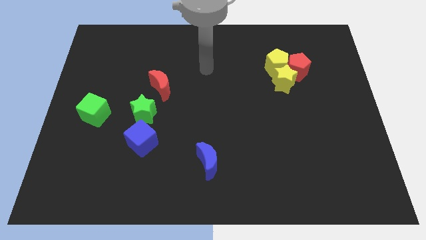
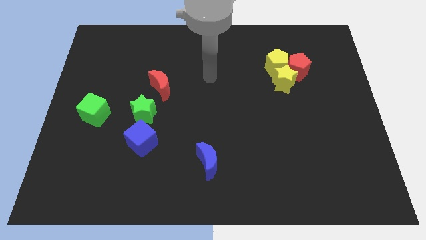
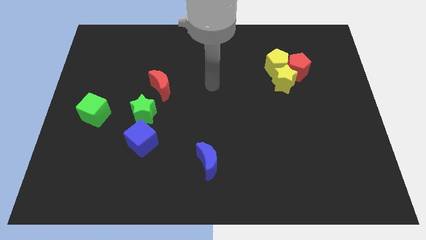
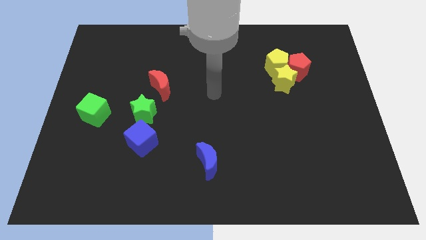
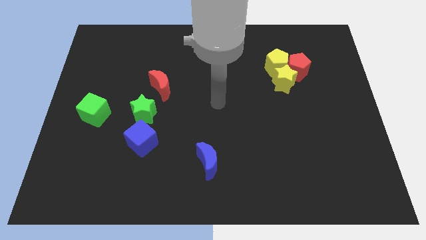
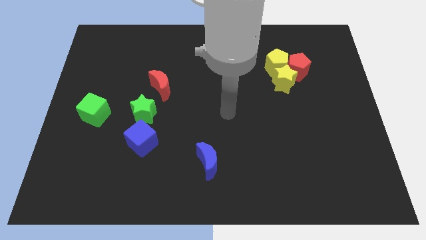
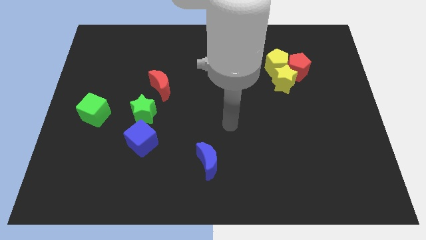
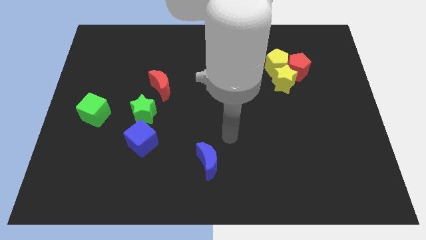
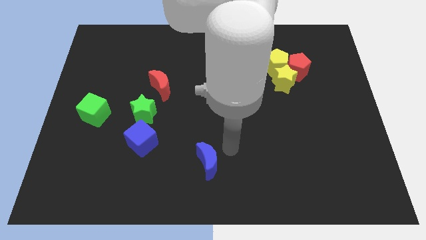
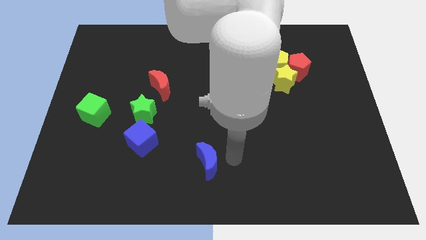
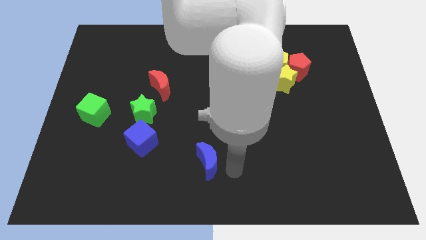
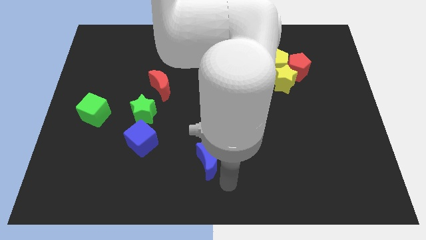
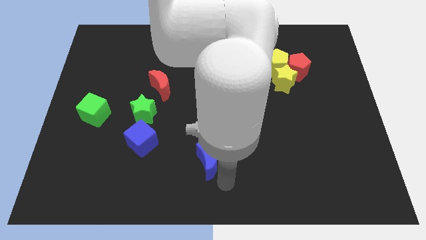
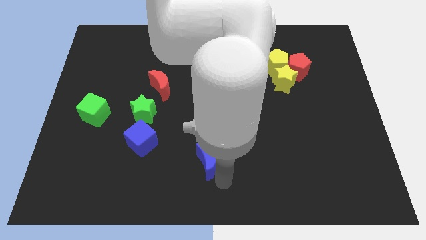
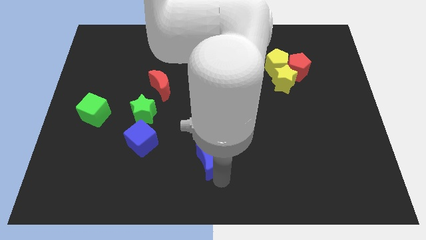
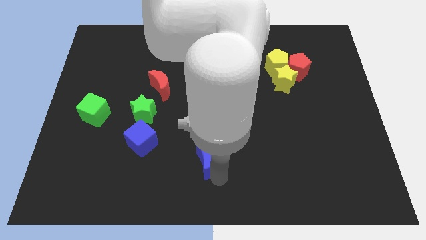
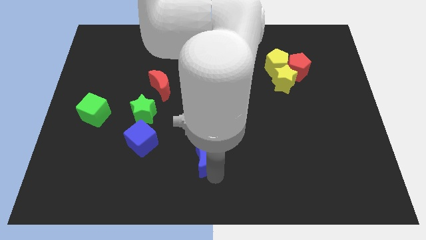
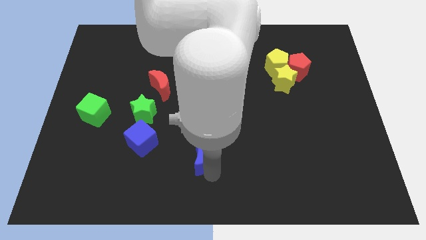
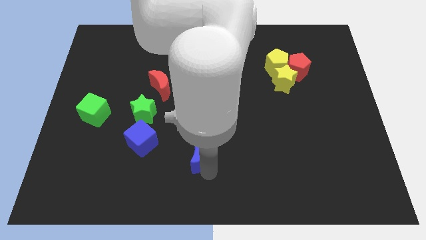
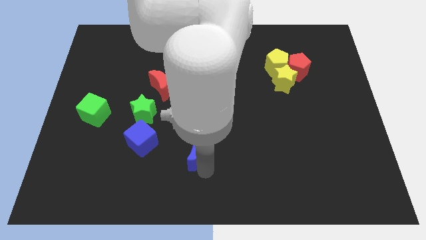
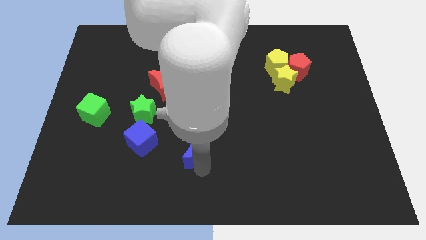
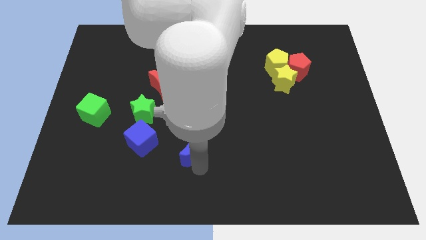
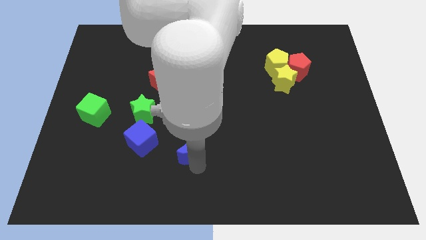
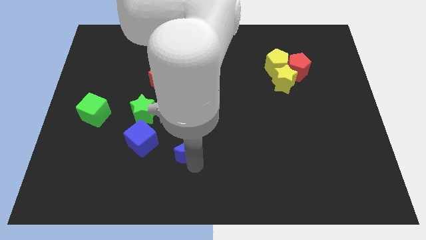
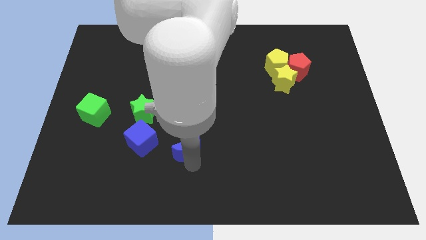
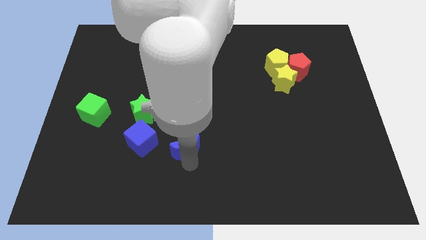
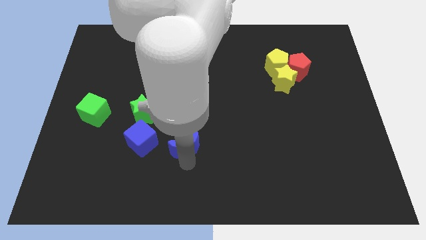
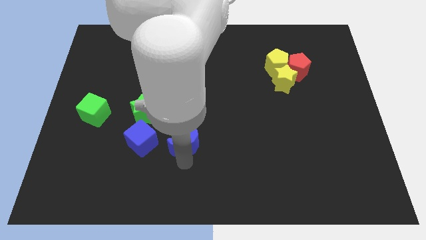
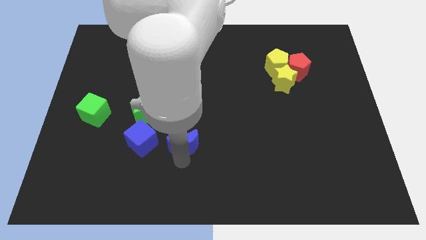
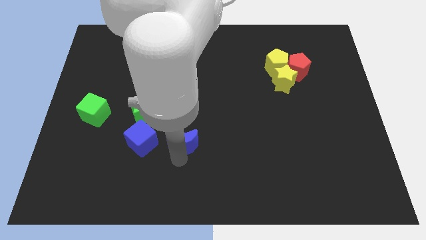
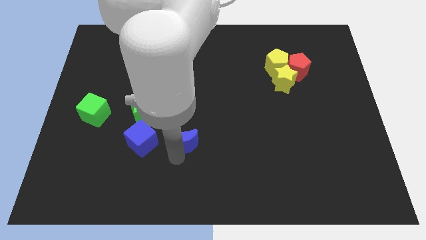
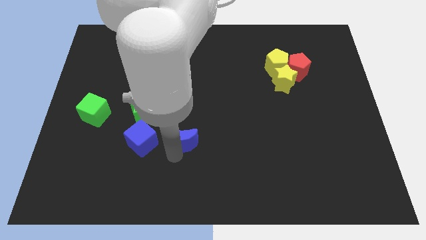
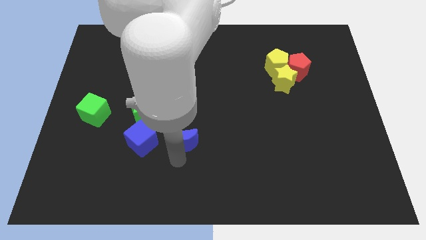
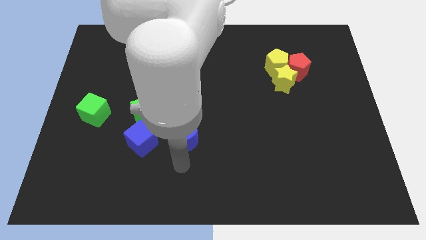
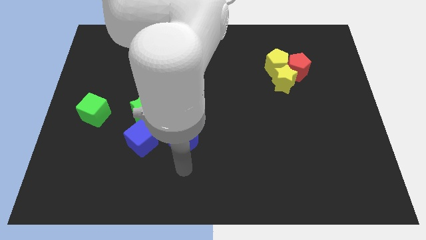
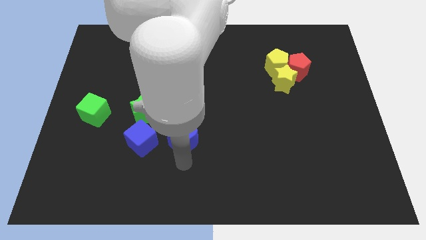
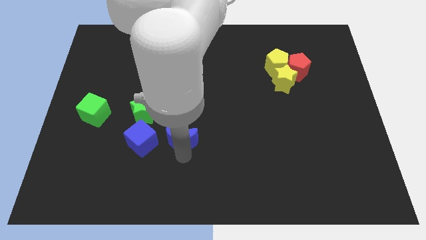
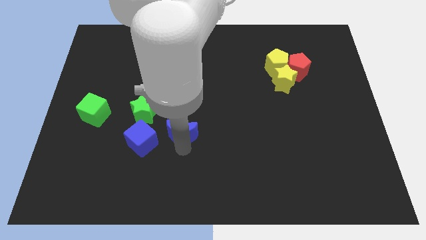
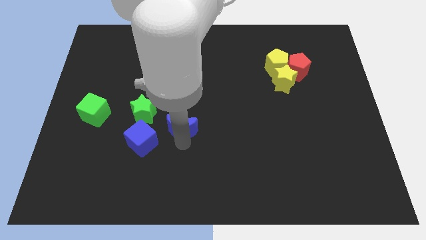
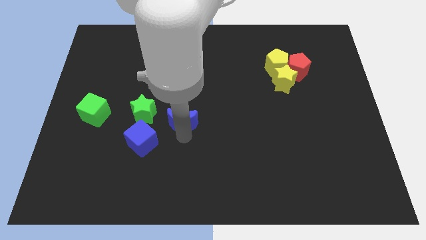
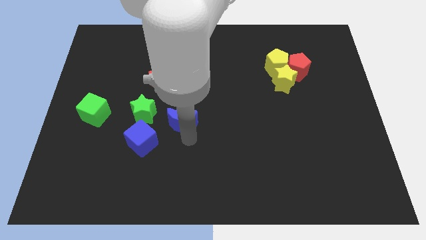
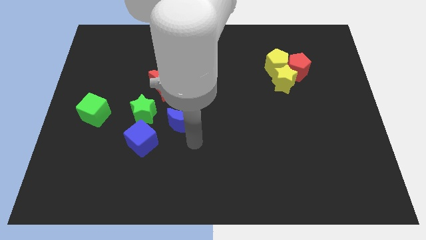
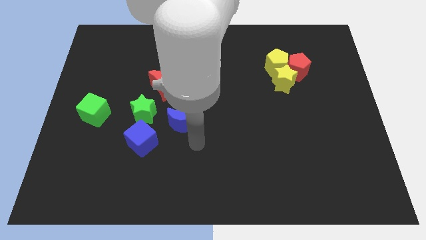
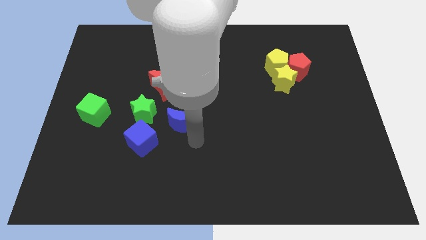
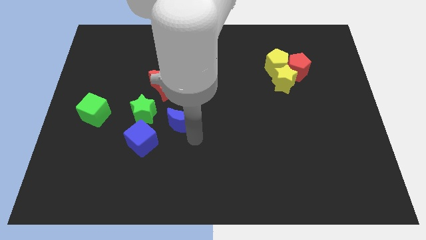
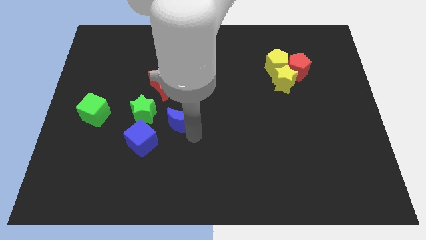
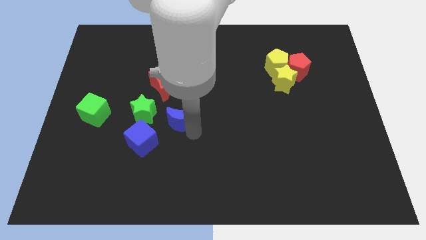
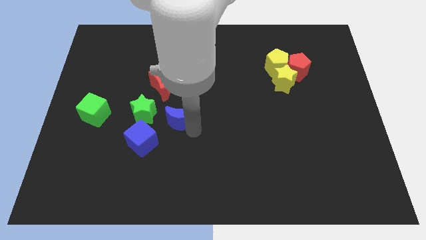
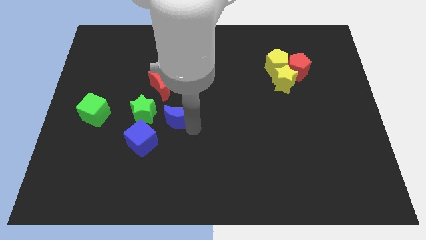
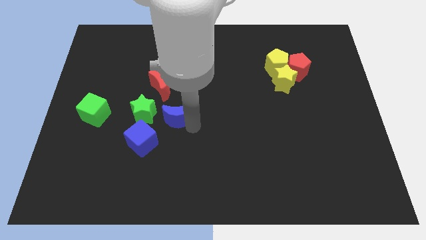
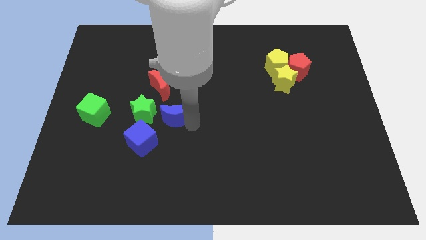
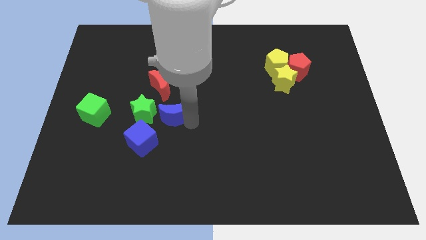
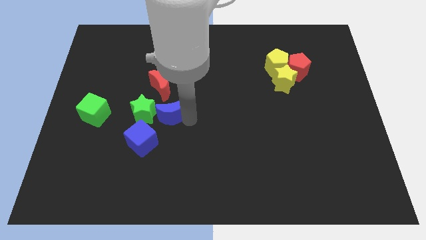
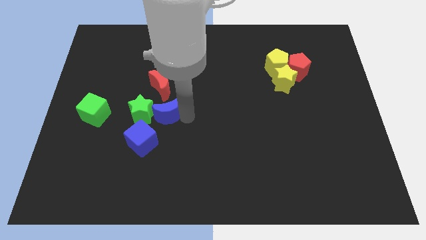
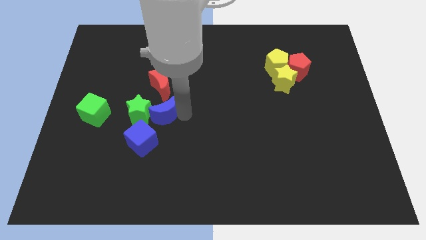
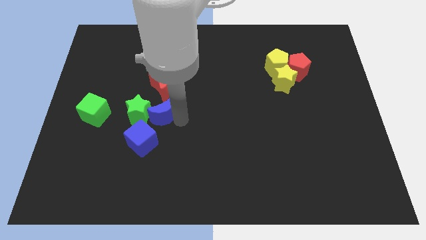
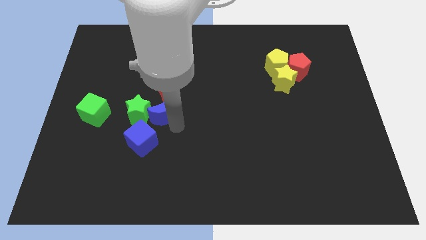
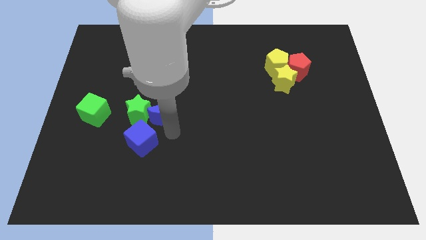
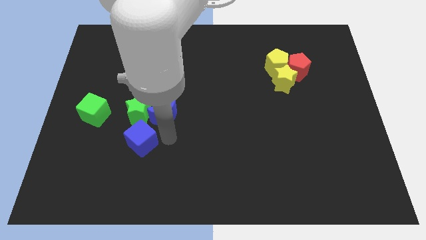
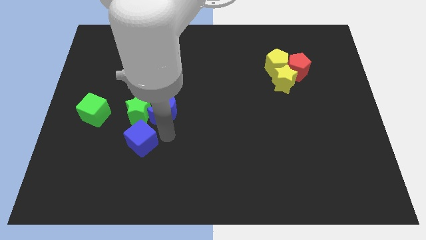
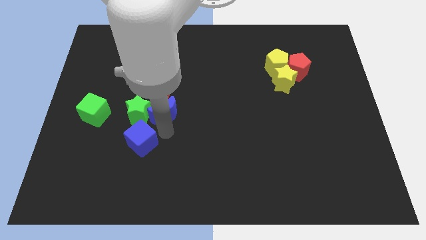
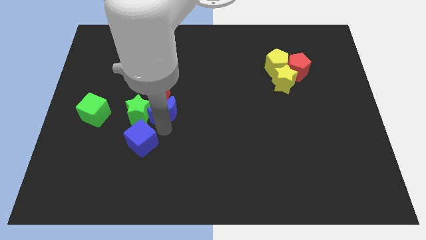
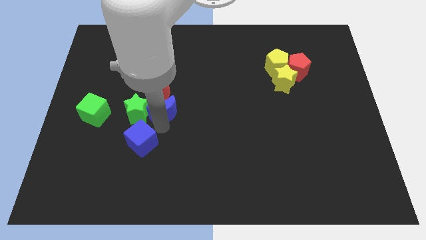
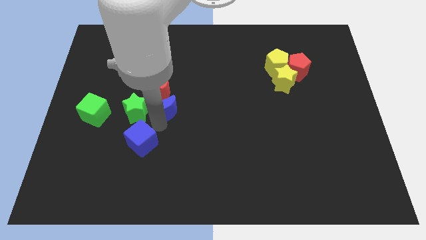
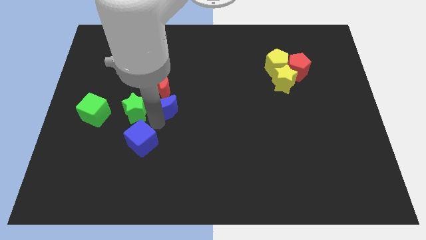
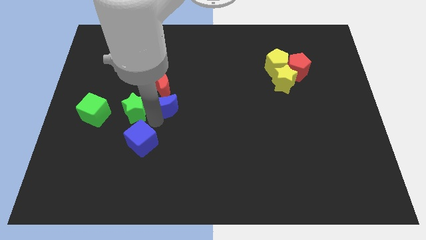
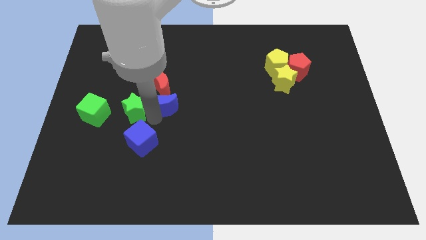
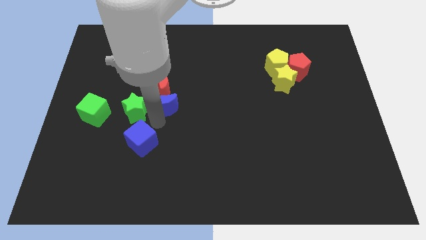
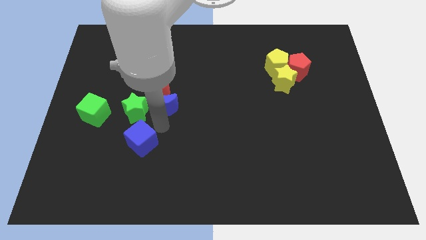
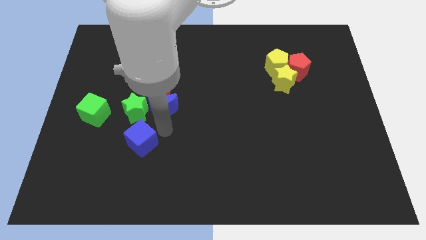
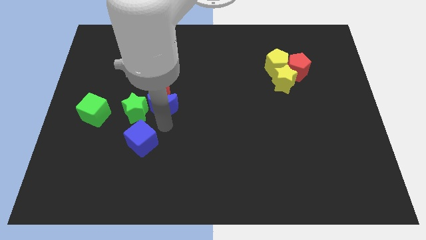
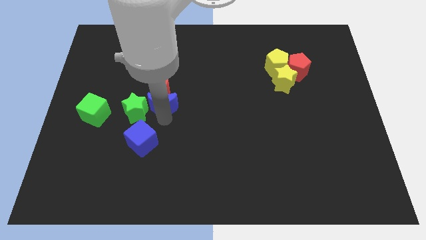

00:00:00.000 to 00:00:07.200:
push the blue moon to the red moon
